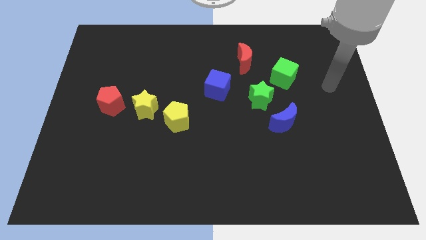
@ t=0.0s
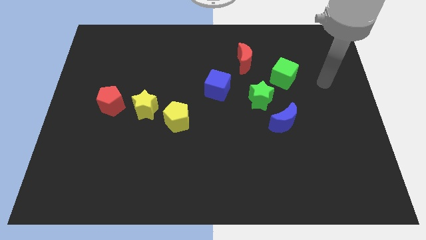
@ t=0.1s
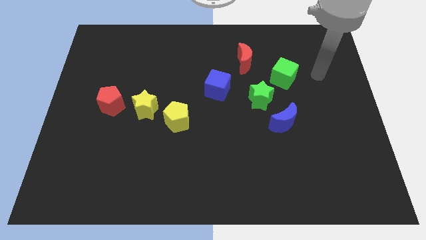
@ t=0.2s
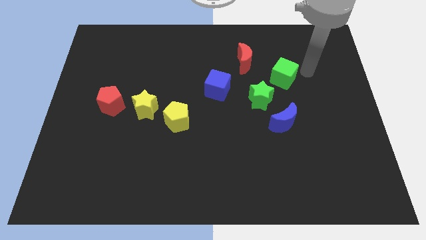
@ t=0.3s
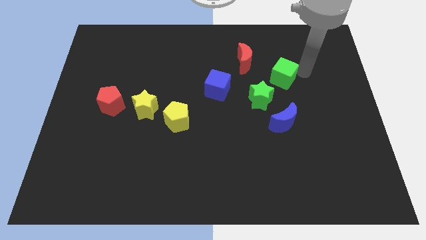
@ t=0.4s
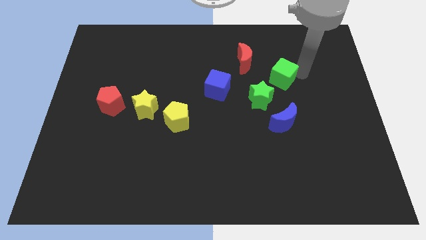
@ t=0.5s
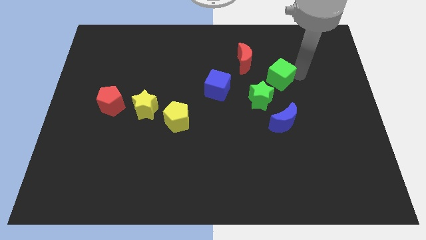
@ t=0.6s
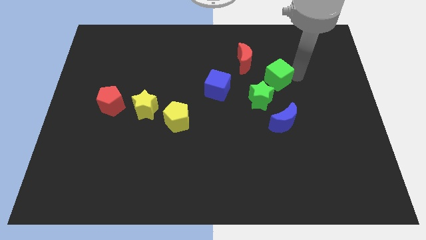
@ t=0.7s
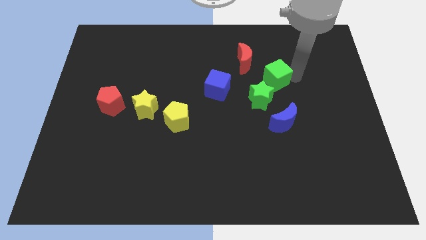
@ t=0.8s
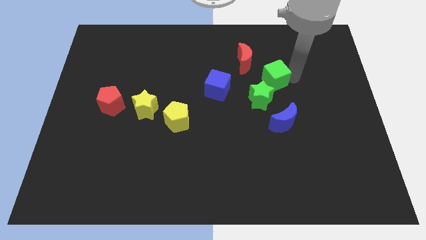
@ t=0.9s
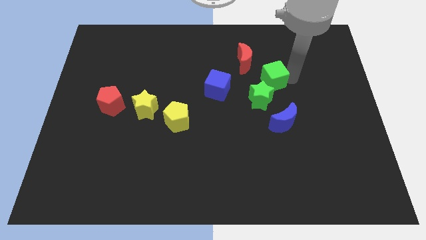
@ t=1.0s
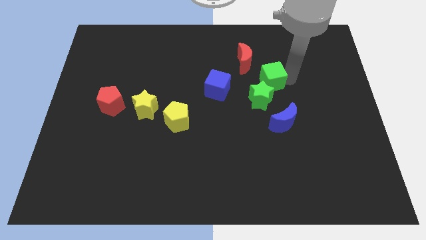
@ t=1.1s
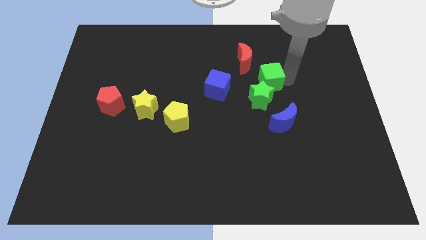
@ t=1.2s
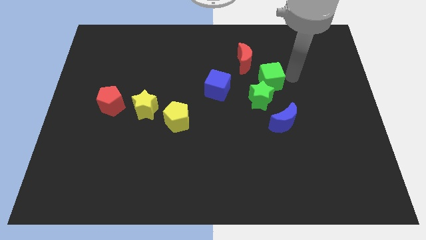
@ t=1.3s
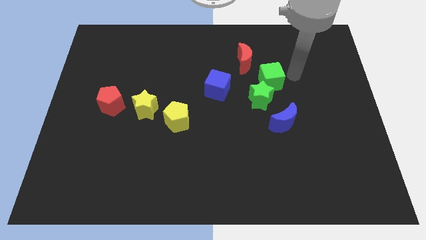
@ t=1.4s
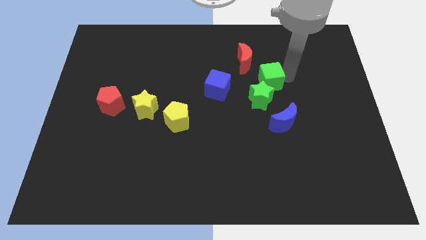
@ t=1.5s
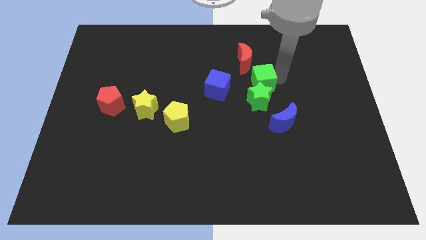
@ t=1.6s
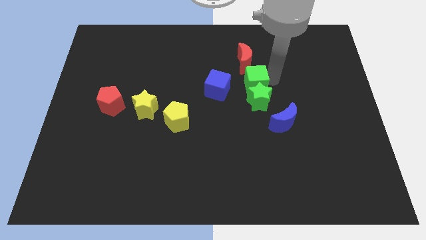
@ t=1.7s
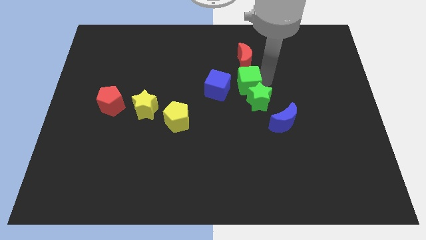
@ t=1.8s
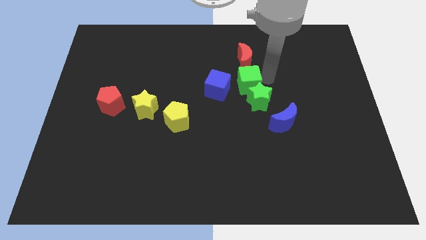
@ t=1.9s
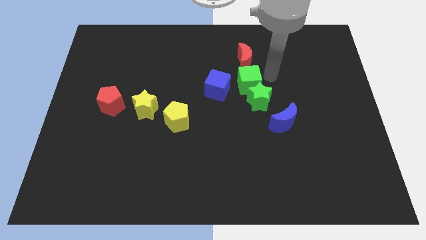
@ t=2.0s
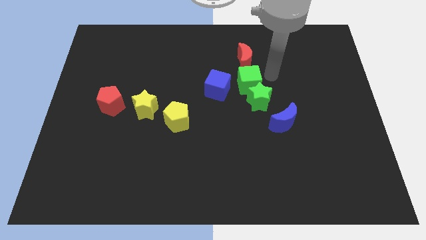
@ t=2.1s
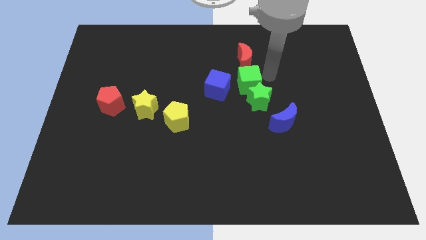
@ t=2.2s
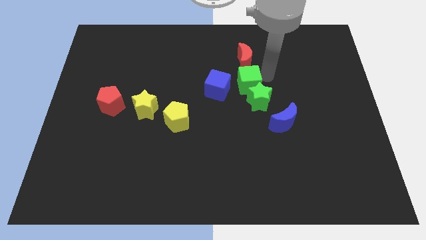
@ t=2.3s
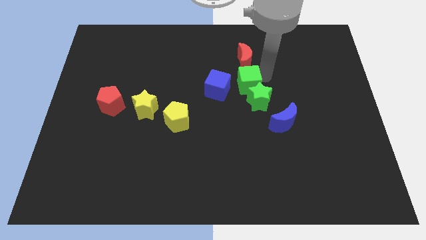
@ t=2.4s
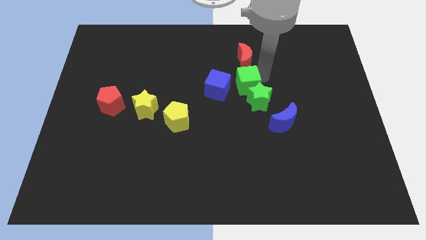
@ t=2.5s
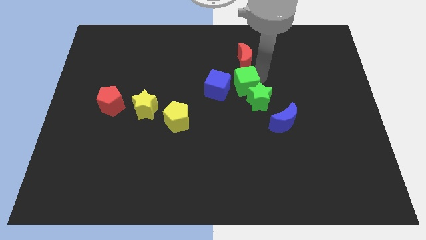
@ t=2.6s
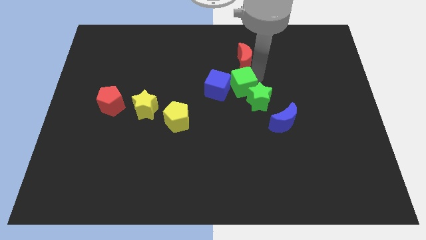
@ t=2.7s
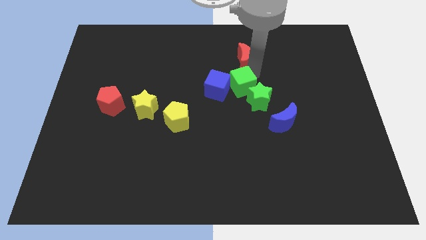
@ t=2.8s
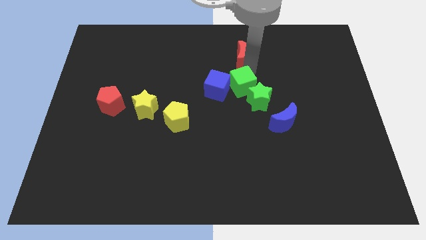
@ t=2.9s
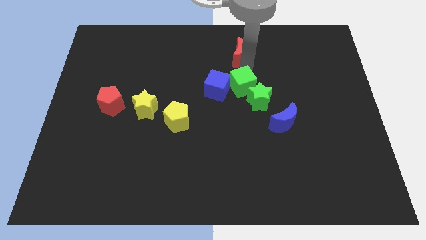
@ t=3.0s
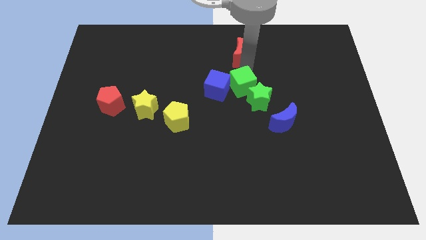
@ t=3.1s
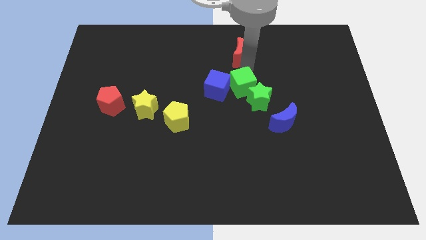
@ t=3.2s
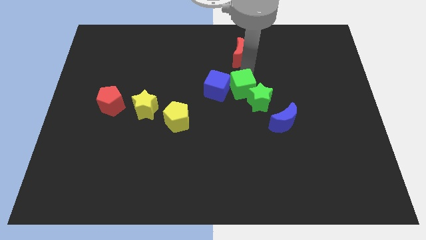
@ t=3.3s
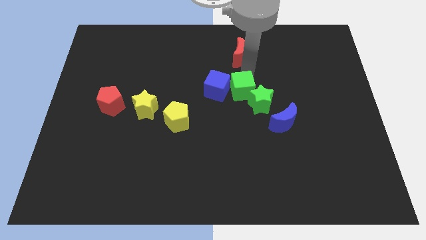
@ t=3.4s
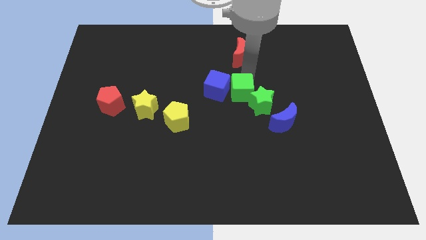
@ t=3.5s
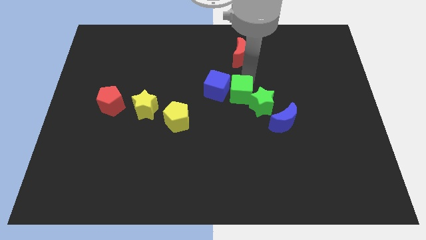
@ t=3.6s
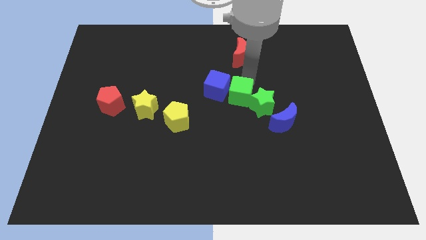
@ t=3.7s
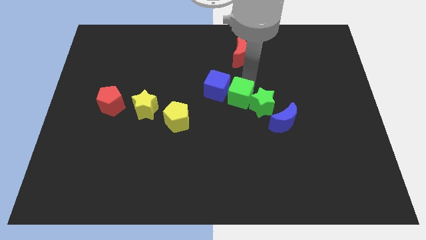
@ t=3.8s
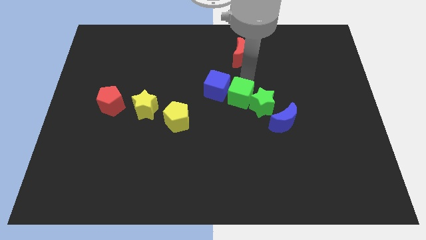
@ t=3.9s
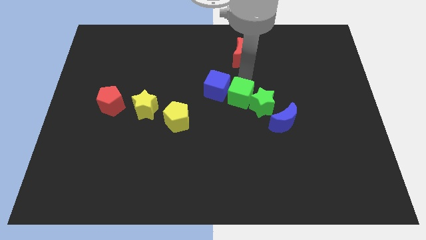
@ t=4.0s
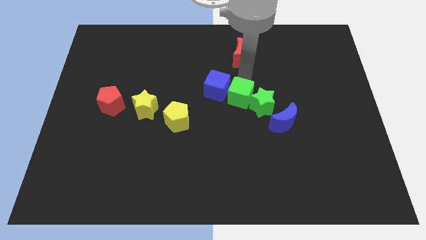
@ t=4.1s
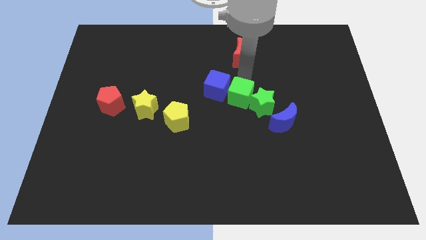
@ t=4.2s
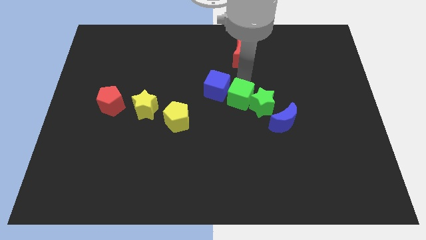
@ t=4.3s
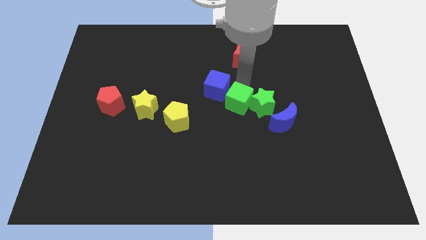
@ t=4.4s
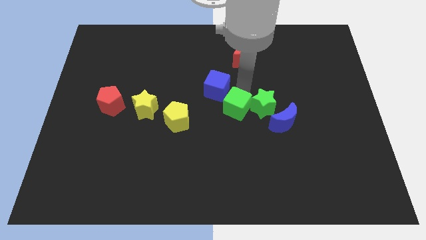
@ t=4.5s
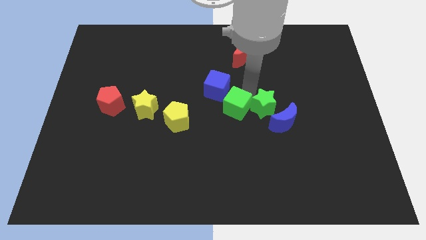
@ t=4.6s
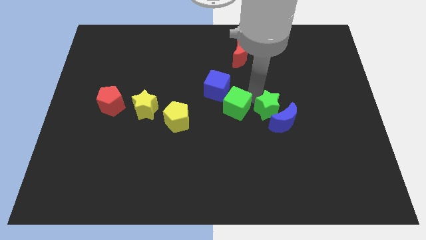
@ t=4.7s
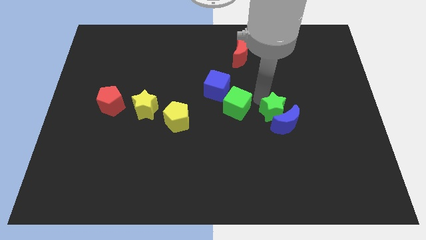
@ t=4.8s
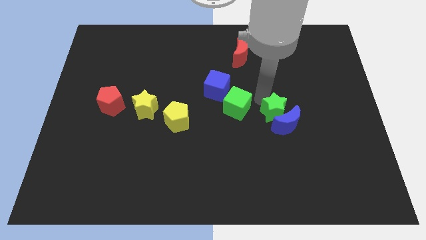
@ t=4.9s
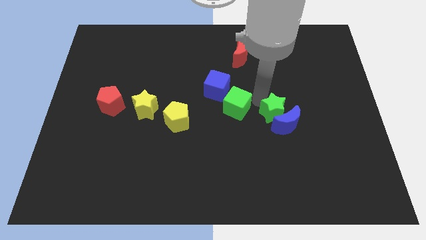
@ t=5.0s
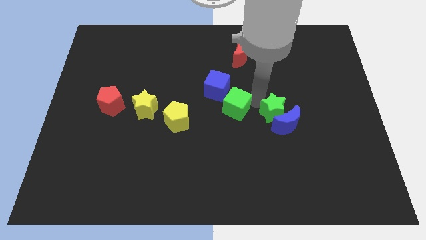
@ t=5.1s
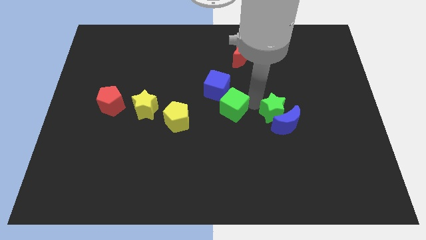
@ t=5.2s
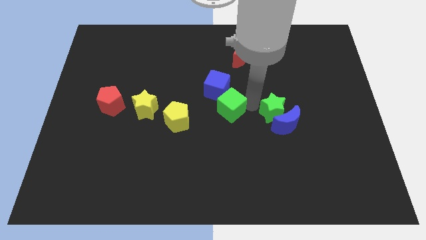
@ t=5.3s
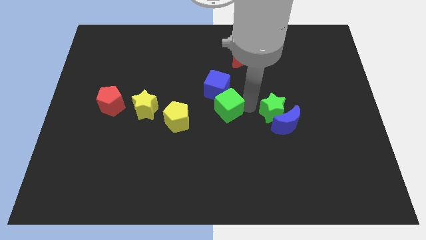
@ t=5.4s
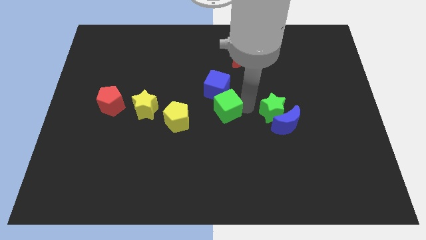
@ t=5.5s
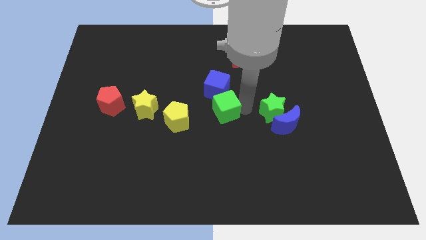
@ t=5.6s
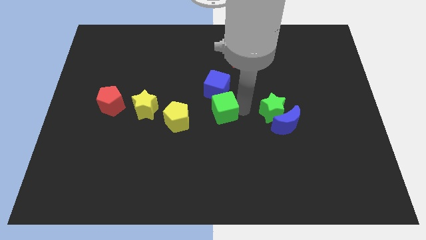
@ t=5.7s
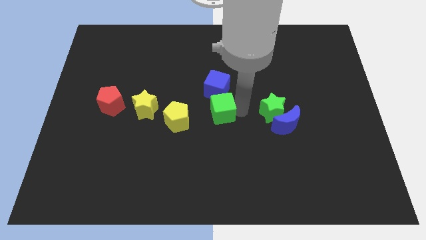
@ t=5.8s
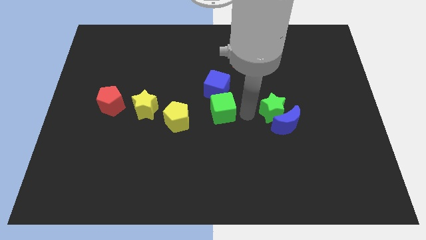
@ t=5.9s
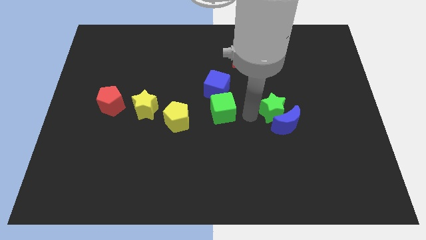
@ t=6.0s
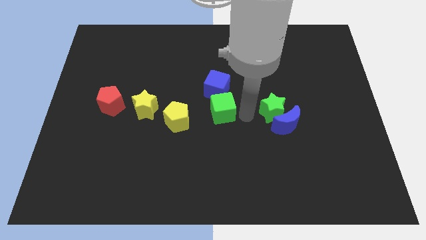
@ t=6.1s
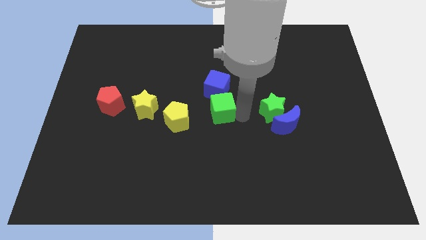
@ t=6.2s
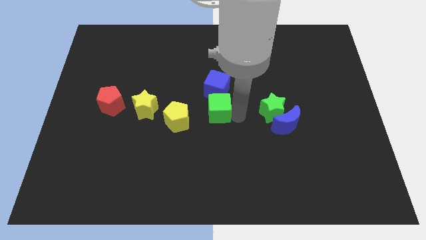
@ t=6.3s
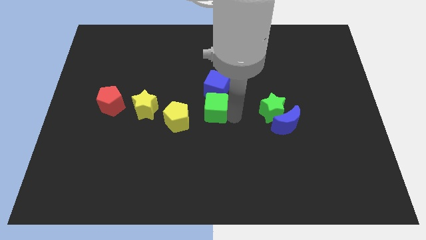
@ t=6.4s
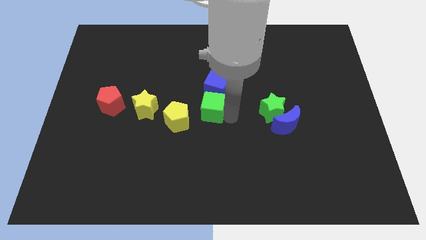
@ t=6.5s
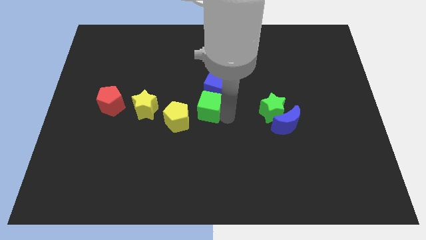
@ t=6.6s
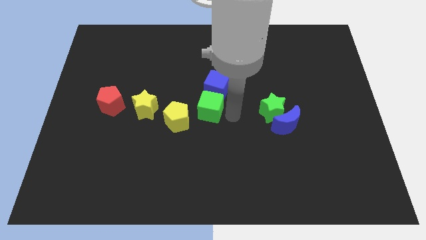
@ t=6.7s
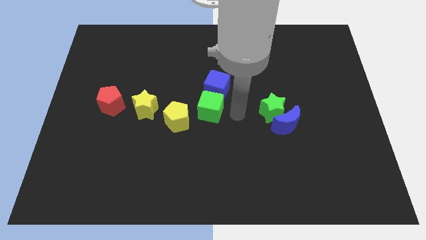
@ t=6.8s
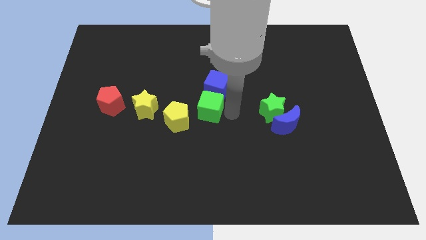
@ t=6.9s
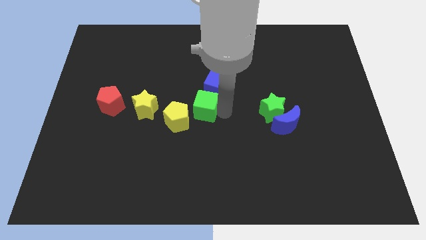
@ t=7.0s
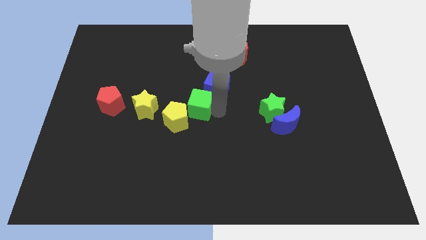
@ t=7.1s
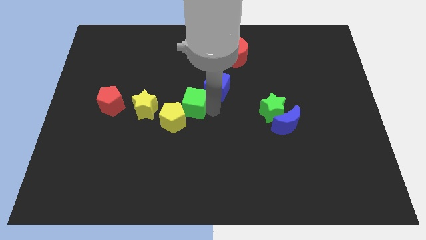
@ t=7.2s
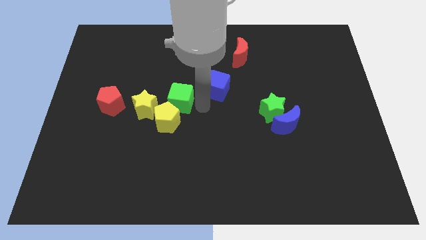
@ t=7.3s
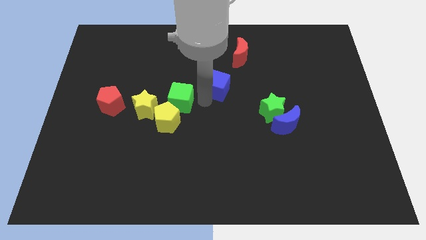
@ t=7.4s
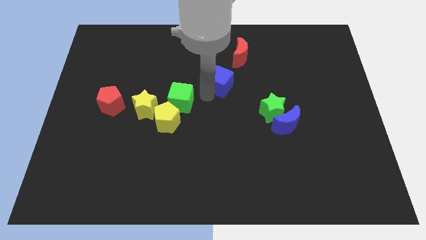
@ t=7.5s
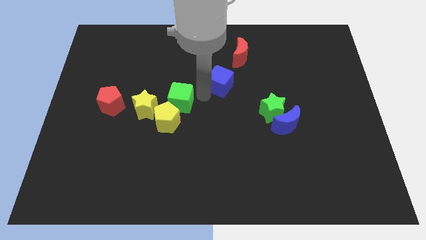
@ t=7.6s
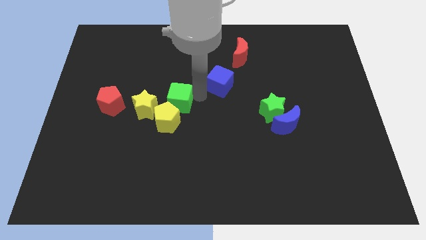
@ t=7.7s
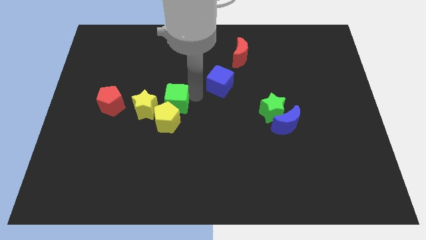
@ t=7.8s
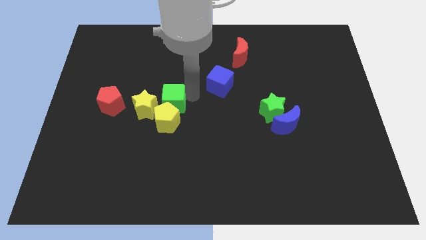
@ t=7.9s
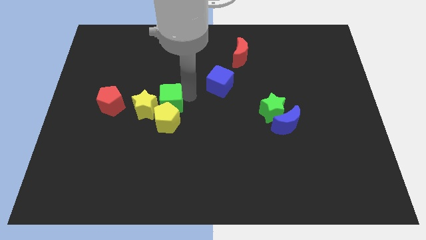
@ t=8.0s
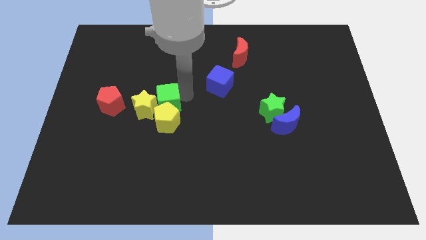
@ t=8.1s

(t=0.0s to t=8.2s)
move the green cube towards the yellow star

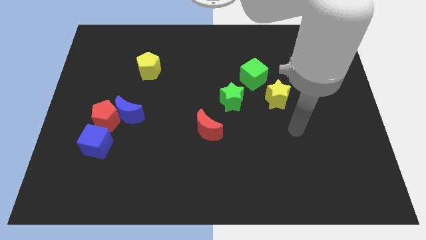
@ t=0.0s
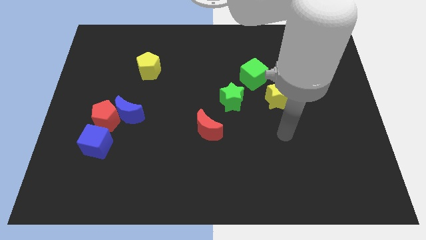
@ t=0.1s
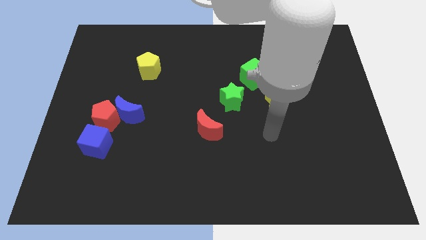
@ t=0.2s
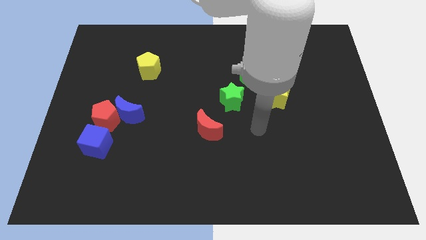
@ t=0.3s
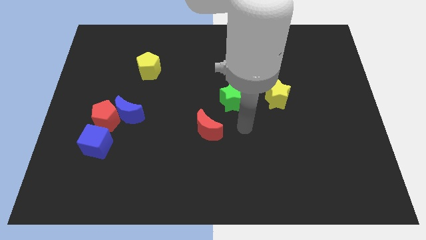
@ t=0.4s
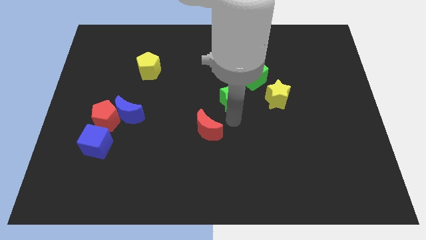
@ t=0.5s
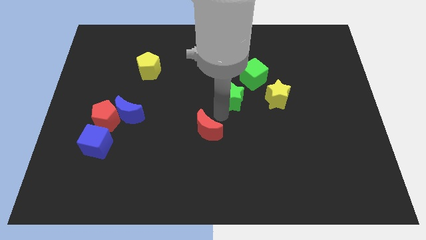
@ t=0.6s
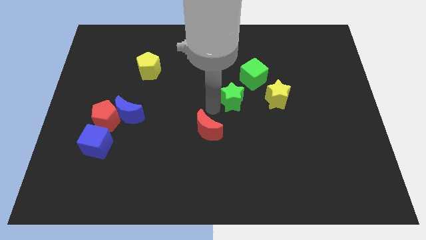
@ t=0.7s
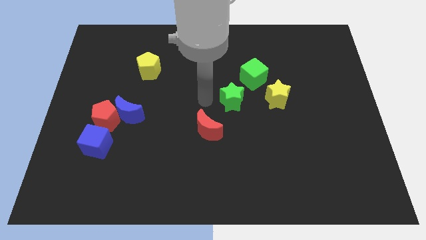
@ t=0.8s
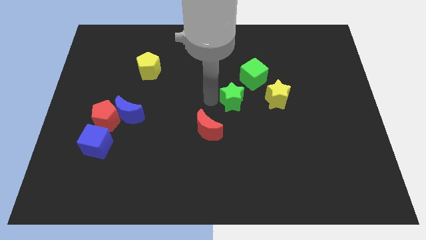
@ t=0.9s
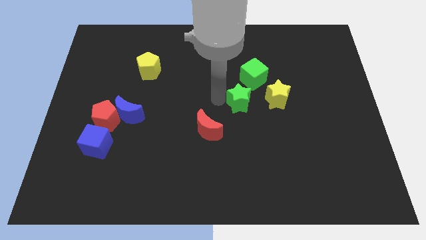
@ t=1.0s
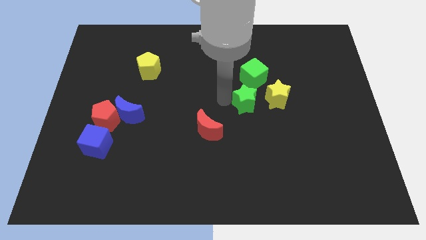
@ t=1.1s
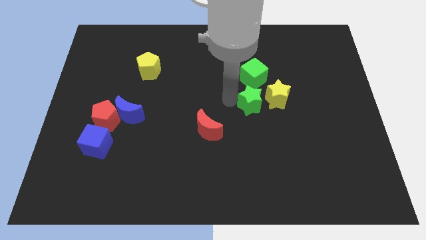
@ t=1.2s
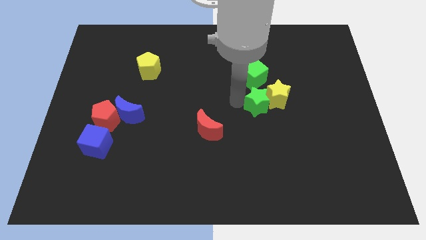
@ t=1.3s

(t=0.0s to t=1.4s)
push the green star to the yellow star
